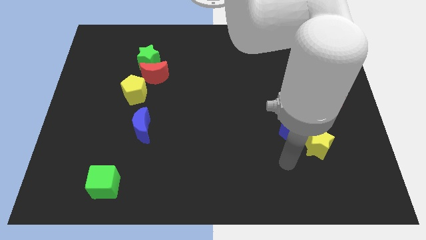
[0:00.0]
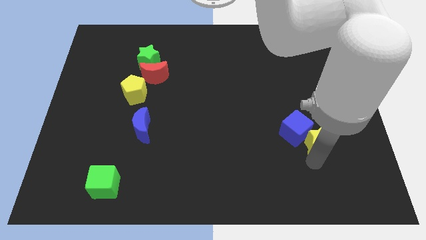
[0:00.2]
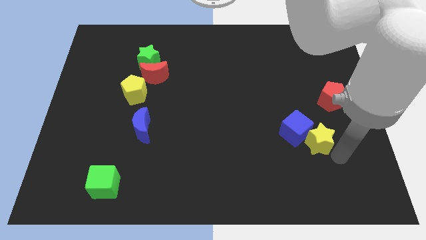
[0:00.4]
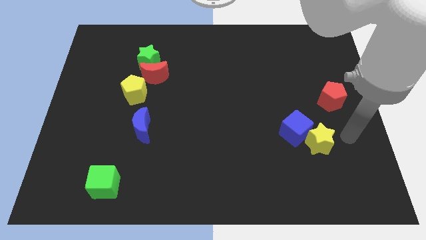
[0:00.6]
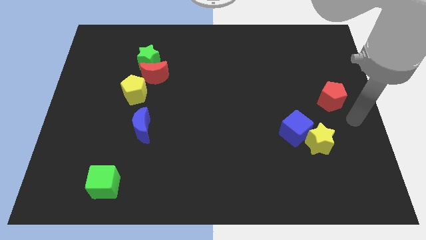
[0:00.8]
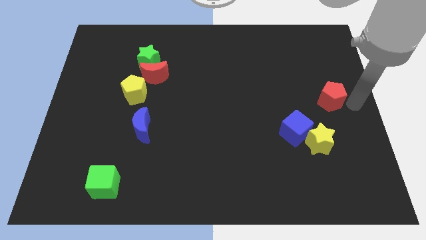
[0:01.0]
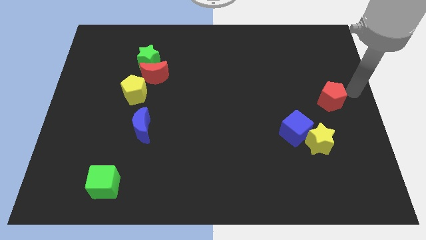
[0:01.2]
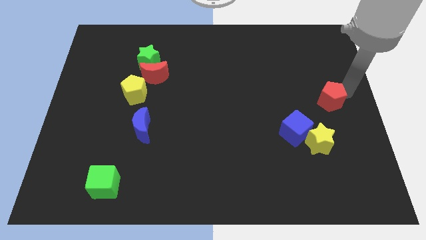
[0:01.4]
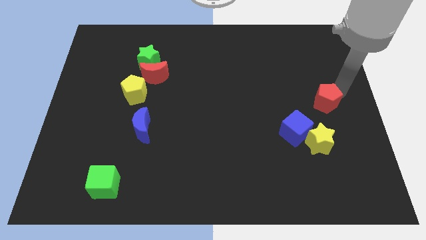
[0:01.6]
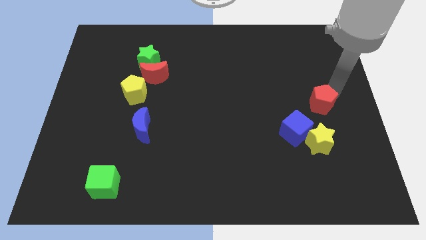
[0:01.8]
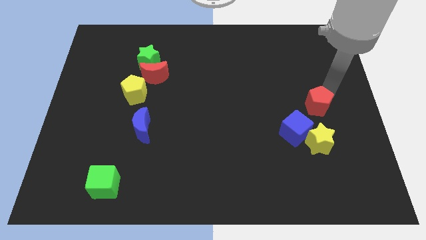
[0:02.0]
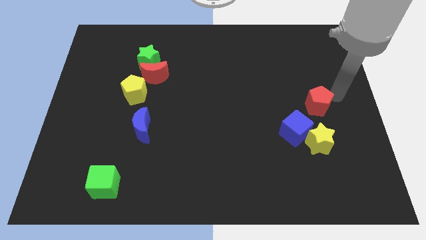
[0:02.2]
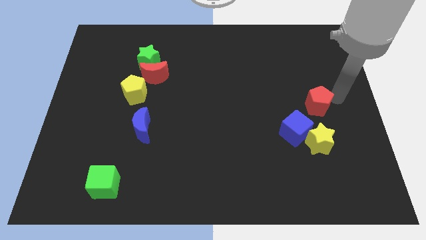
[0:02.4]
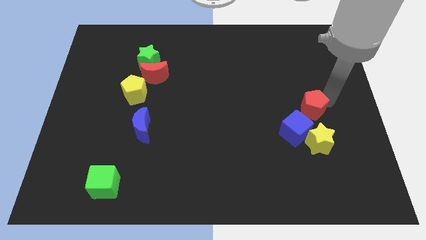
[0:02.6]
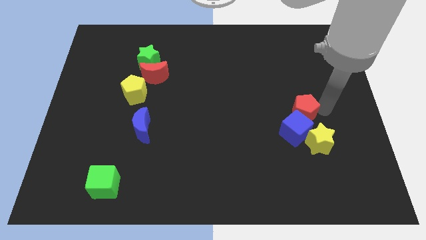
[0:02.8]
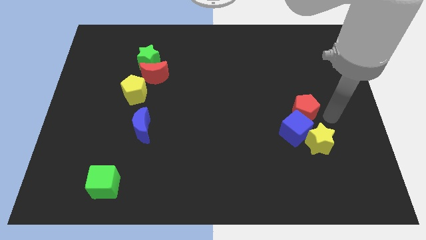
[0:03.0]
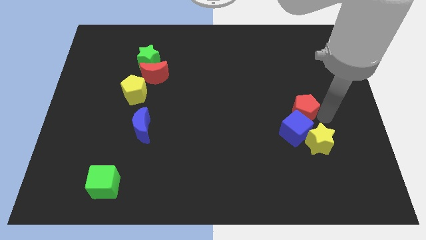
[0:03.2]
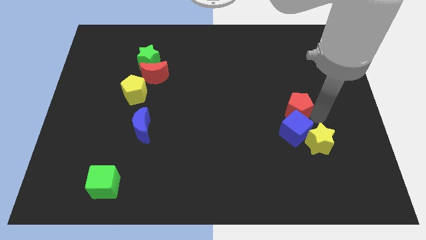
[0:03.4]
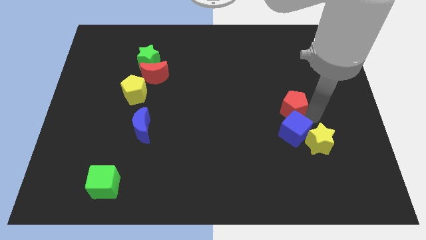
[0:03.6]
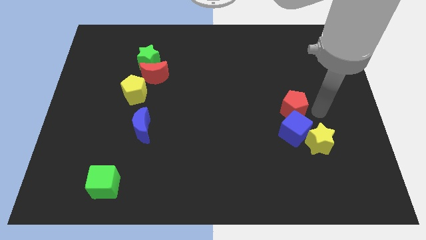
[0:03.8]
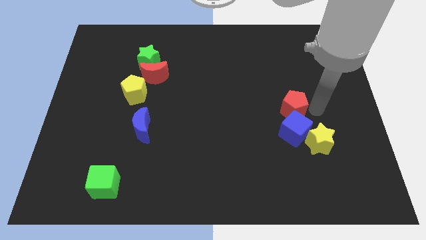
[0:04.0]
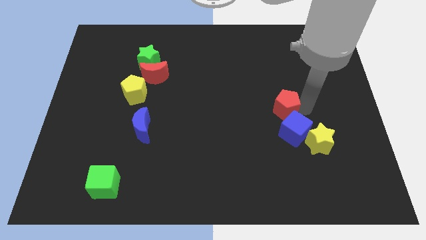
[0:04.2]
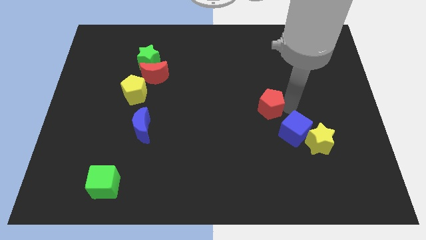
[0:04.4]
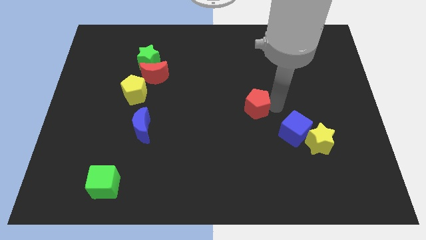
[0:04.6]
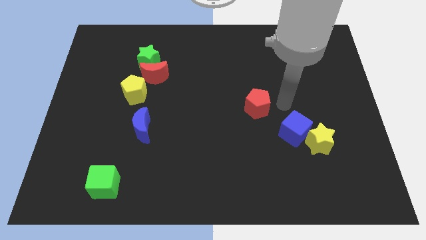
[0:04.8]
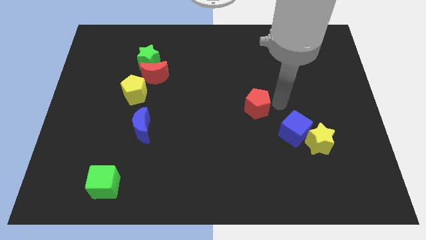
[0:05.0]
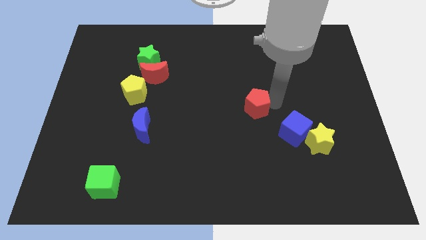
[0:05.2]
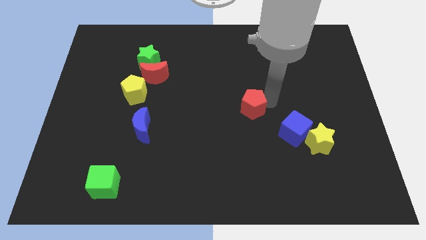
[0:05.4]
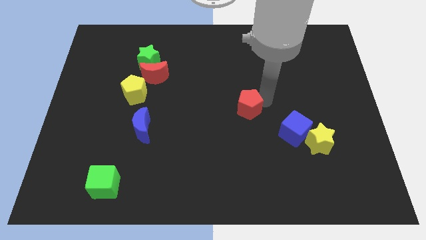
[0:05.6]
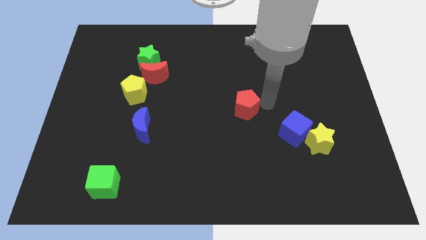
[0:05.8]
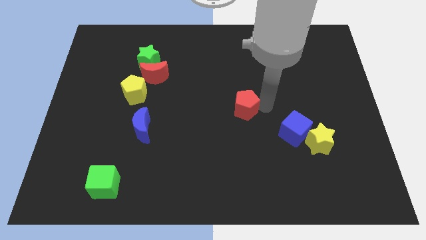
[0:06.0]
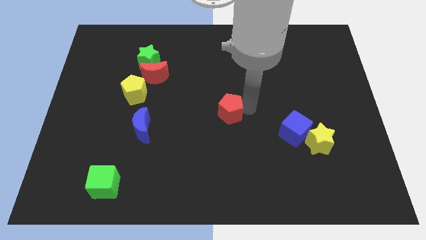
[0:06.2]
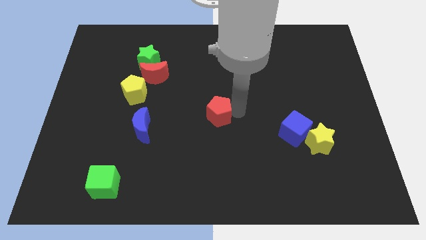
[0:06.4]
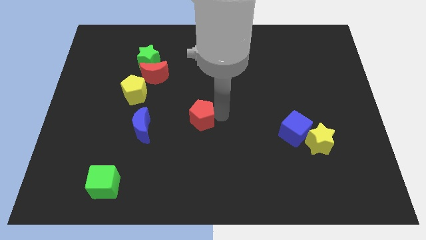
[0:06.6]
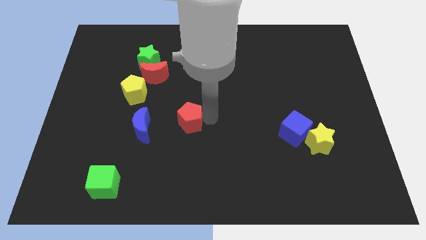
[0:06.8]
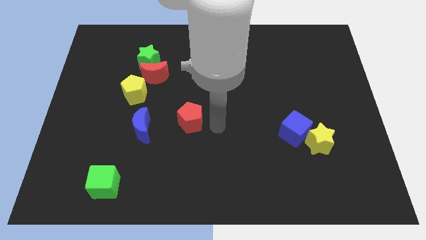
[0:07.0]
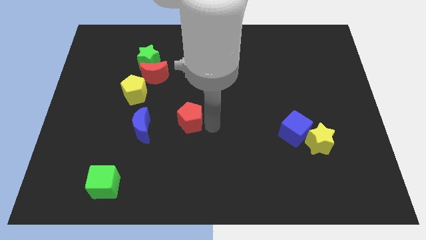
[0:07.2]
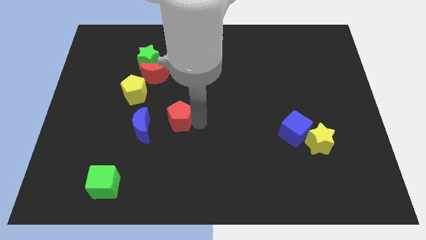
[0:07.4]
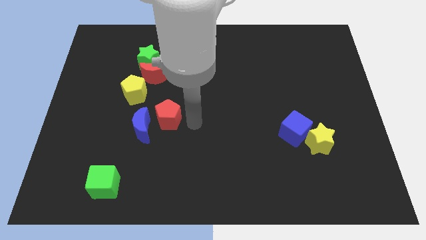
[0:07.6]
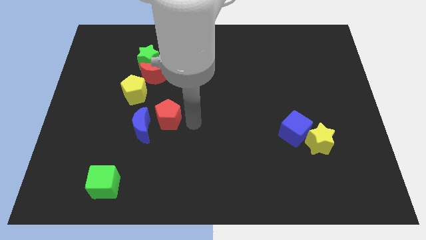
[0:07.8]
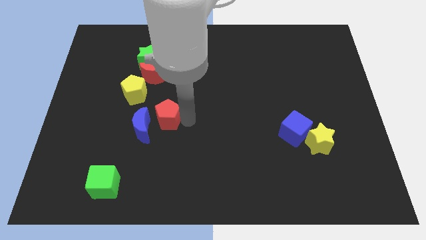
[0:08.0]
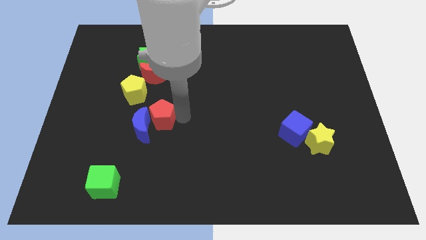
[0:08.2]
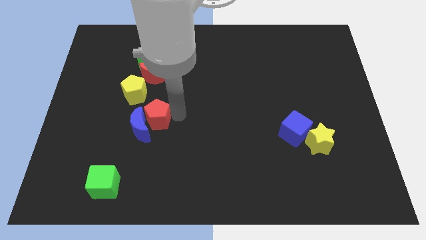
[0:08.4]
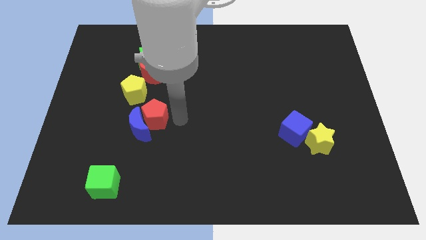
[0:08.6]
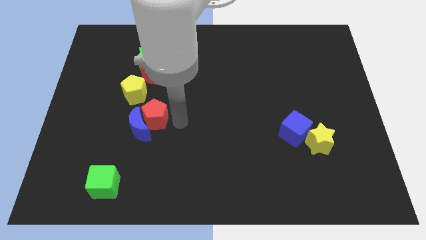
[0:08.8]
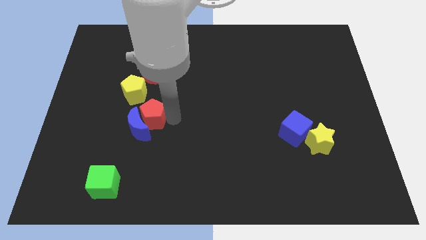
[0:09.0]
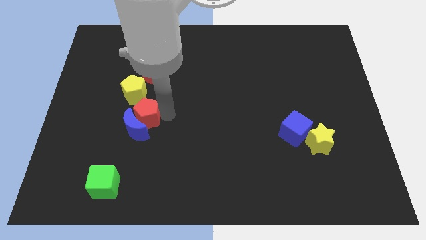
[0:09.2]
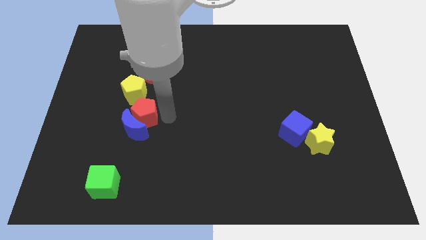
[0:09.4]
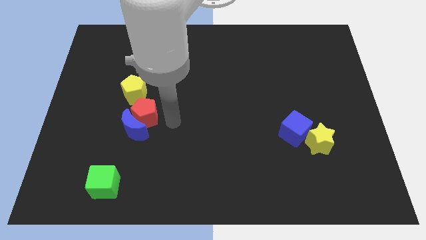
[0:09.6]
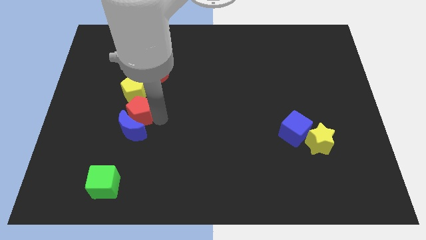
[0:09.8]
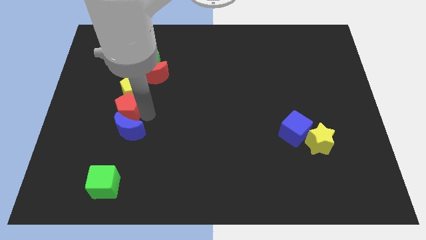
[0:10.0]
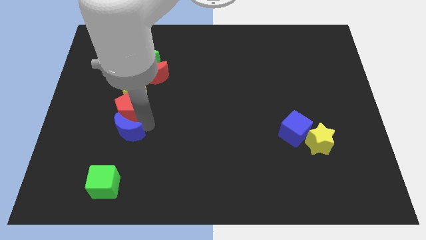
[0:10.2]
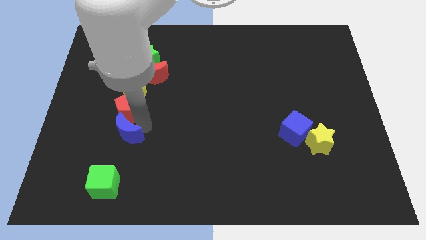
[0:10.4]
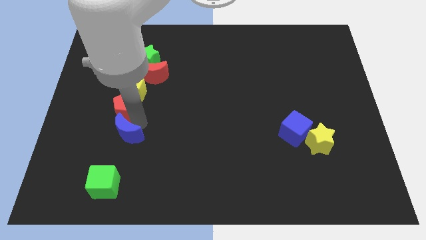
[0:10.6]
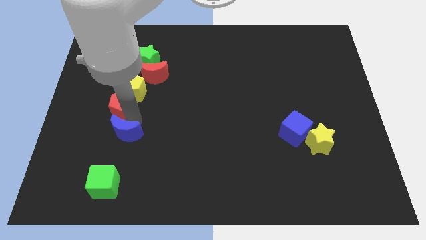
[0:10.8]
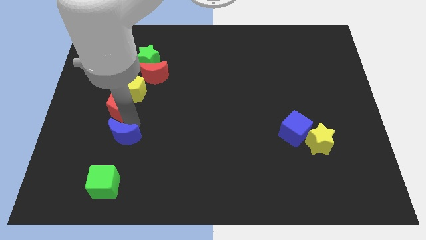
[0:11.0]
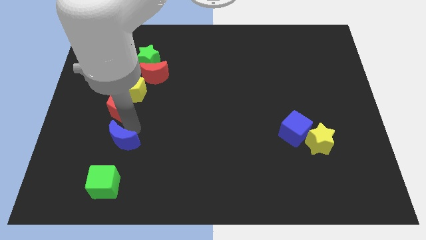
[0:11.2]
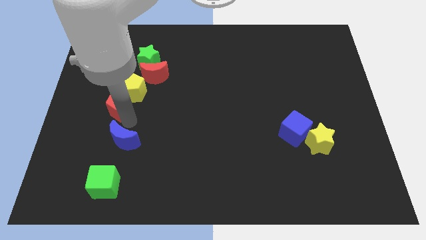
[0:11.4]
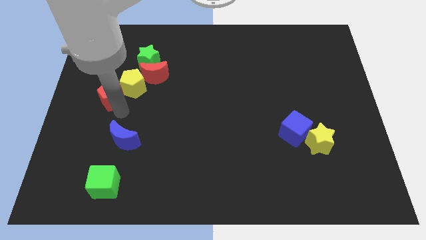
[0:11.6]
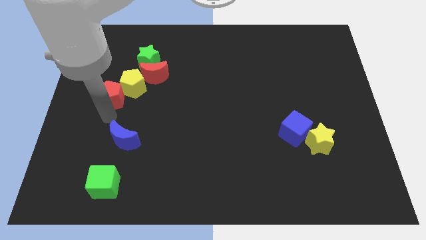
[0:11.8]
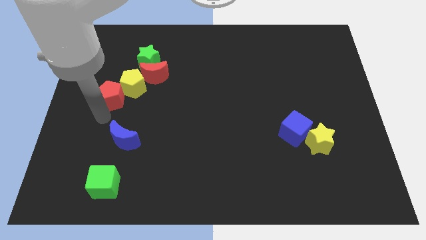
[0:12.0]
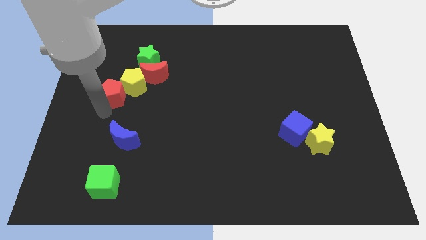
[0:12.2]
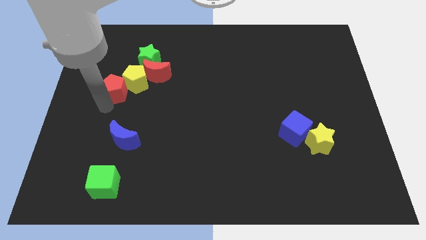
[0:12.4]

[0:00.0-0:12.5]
move the red pentagon diagonally down and to the left of the green star

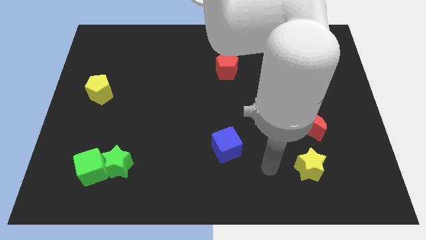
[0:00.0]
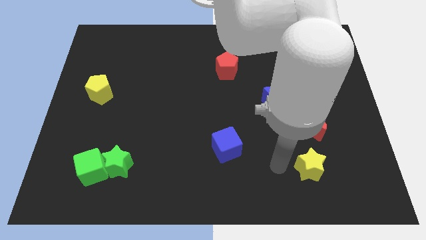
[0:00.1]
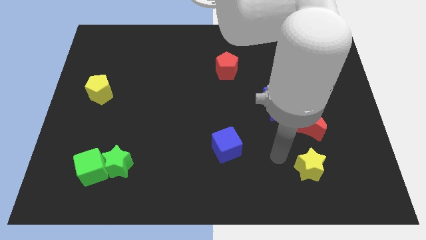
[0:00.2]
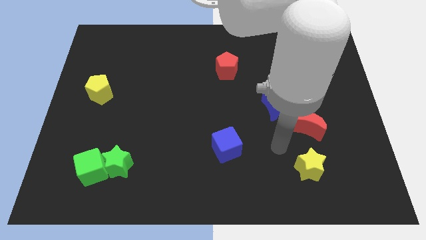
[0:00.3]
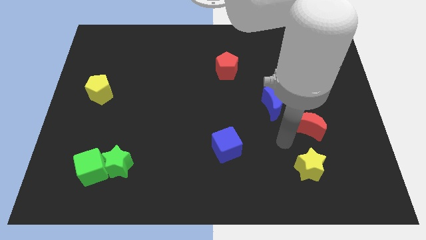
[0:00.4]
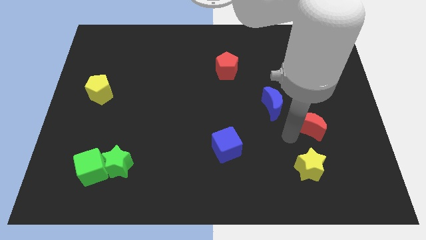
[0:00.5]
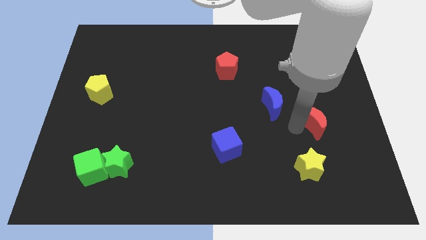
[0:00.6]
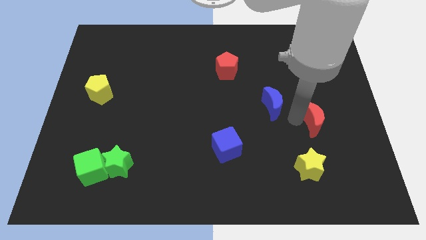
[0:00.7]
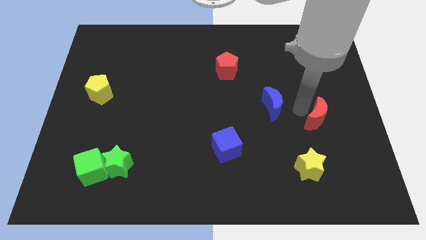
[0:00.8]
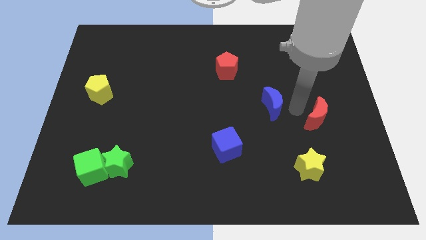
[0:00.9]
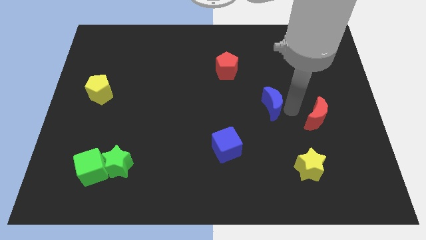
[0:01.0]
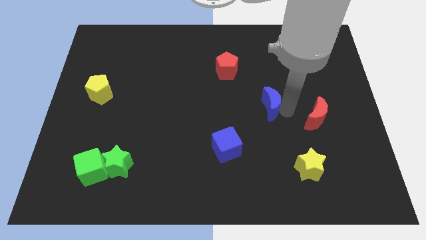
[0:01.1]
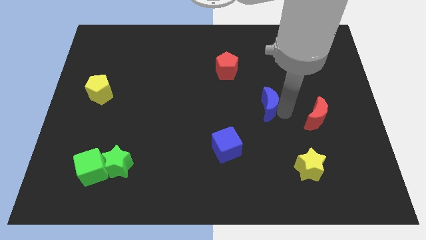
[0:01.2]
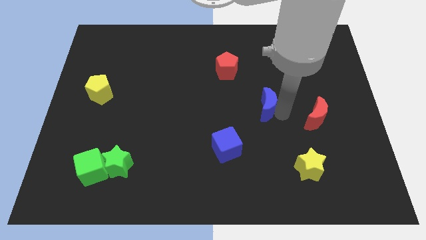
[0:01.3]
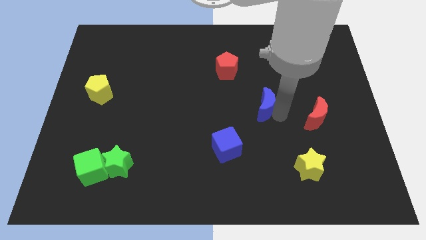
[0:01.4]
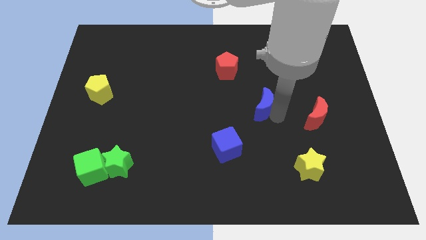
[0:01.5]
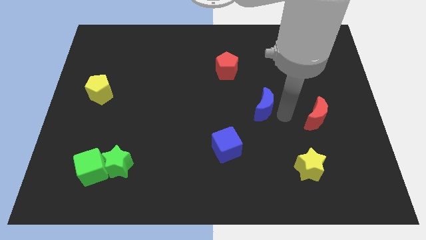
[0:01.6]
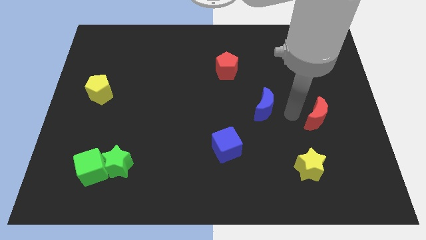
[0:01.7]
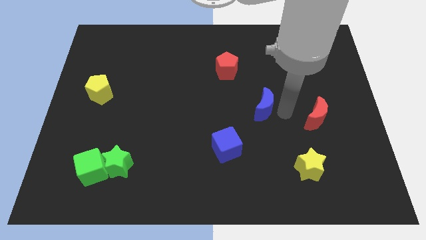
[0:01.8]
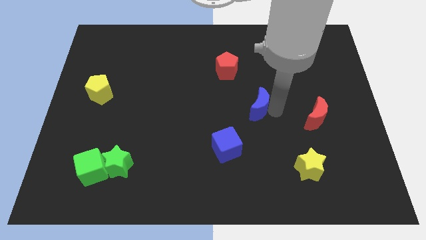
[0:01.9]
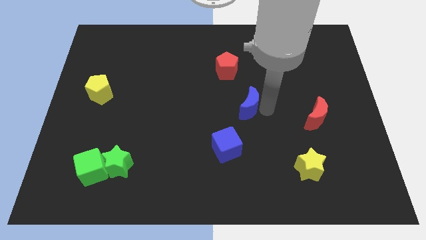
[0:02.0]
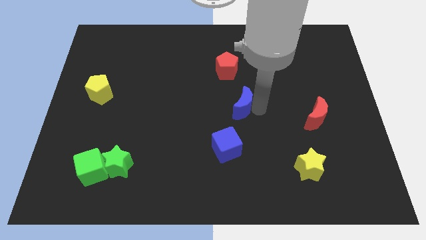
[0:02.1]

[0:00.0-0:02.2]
put the blue moon to the bottom side of the red pentagon

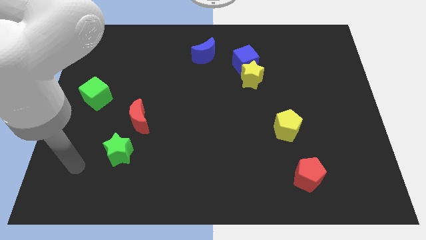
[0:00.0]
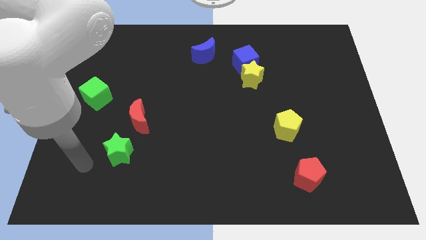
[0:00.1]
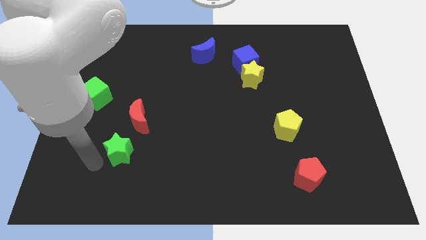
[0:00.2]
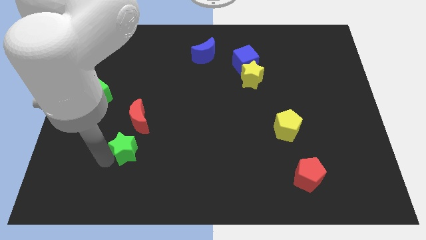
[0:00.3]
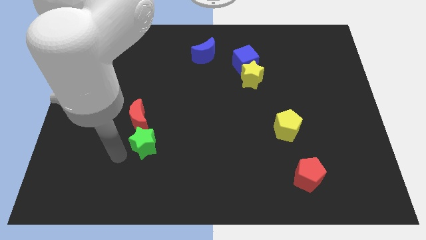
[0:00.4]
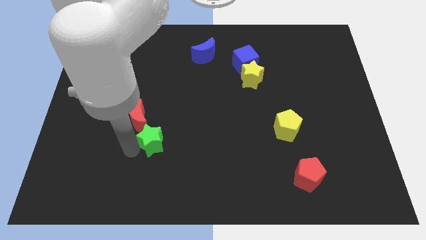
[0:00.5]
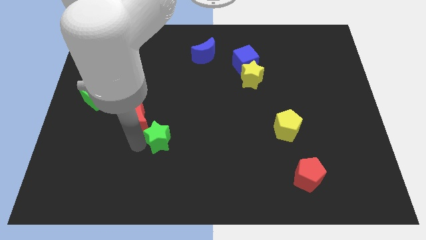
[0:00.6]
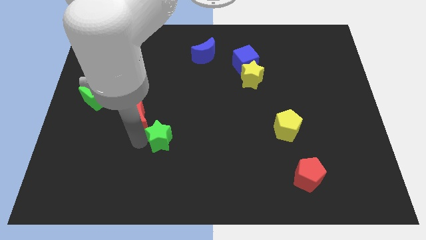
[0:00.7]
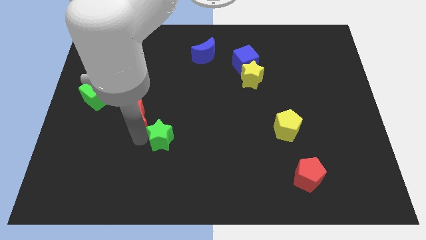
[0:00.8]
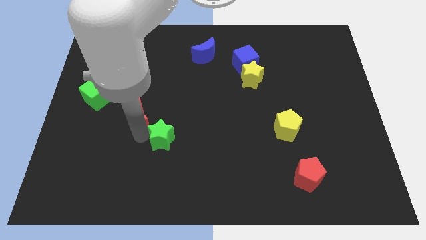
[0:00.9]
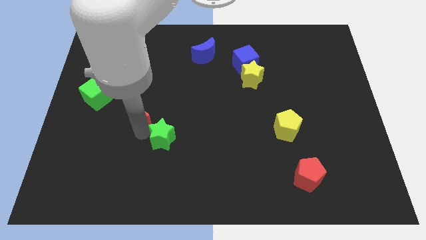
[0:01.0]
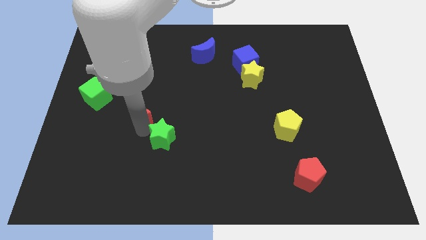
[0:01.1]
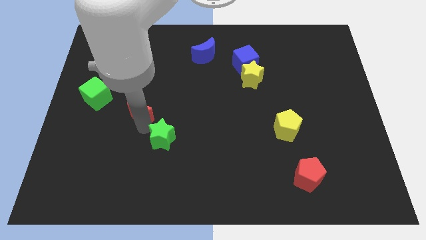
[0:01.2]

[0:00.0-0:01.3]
put the red moon to the right side of the green cube
